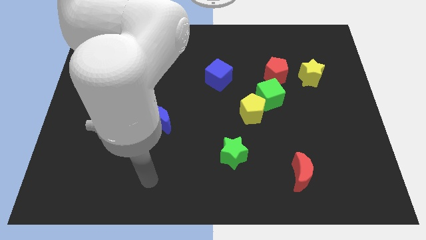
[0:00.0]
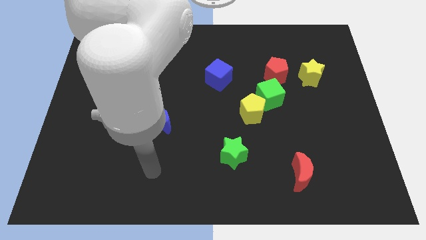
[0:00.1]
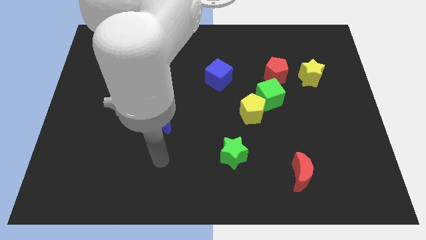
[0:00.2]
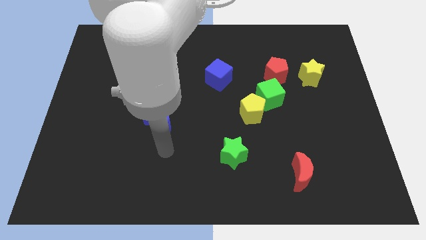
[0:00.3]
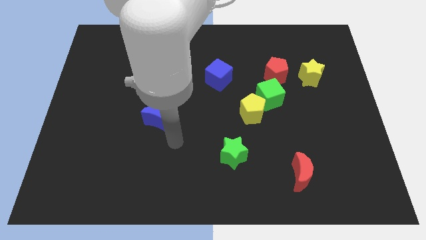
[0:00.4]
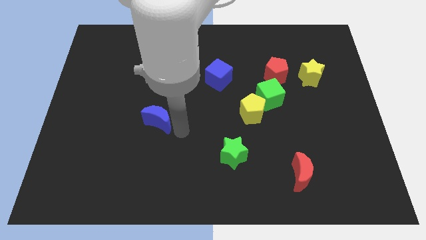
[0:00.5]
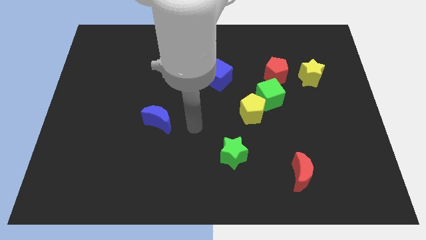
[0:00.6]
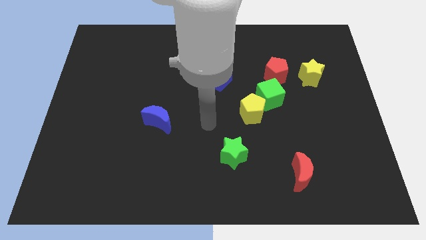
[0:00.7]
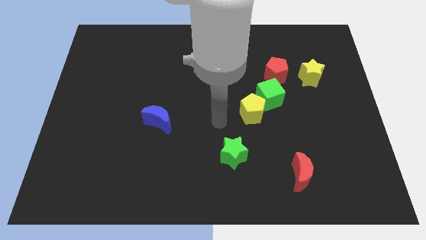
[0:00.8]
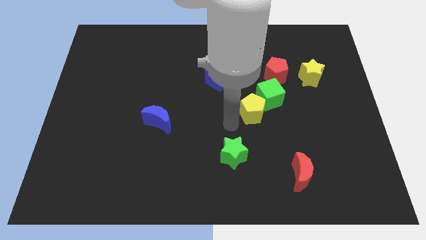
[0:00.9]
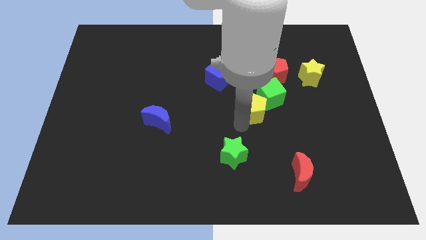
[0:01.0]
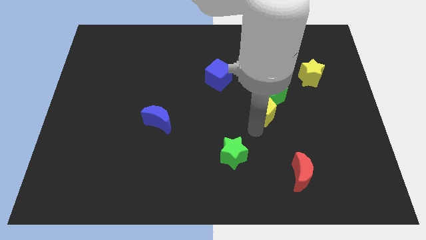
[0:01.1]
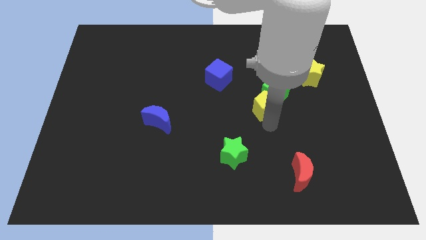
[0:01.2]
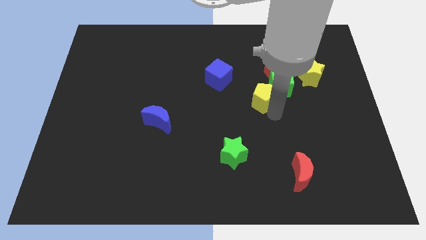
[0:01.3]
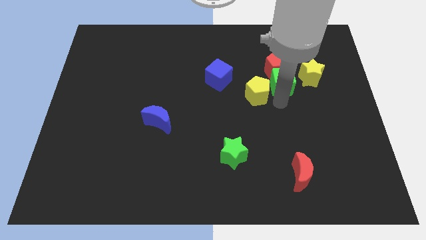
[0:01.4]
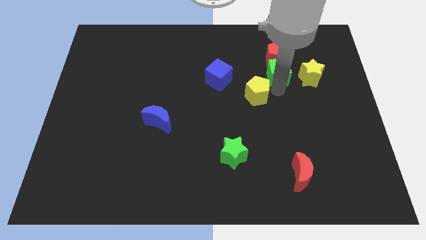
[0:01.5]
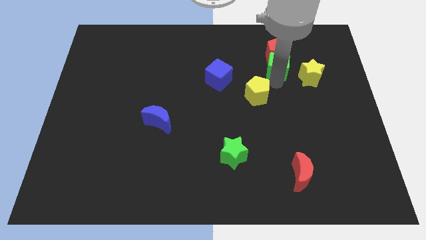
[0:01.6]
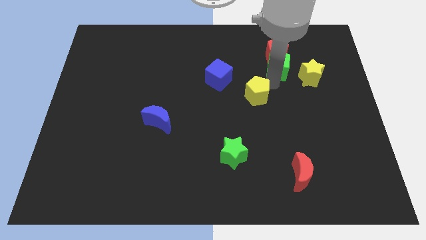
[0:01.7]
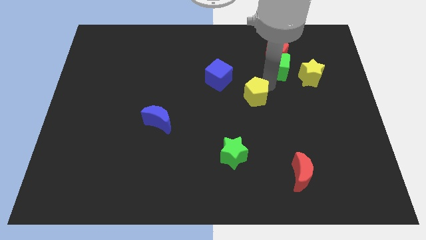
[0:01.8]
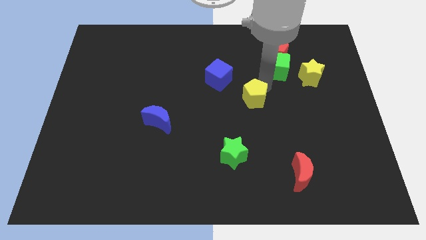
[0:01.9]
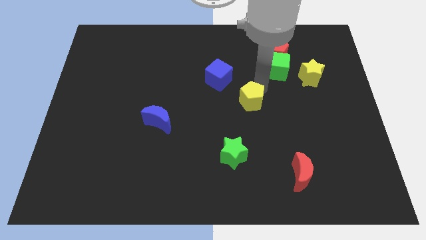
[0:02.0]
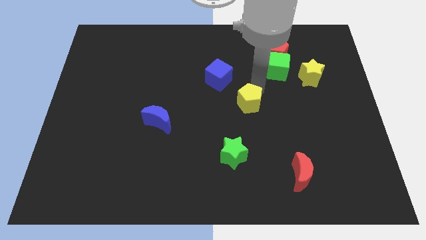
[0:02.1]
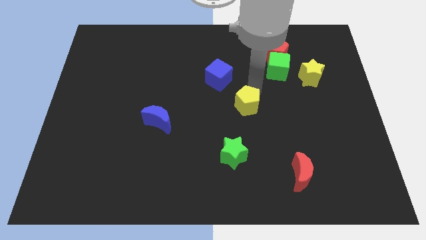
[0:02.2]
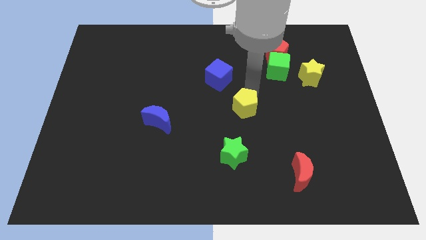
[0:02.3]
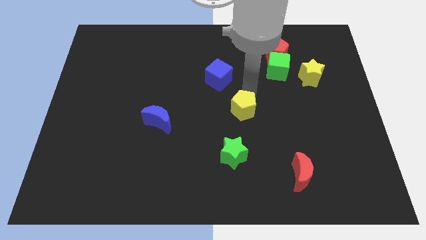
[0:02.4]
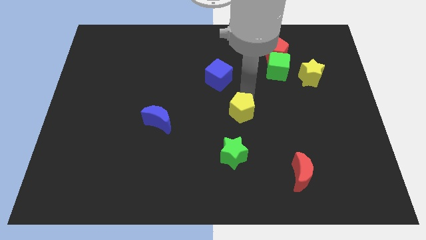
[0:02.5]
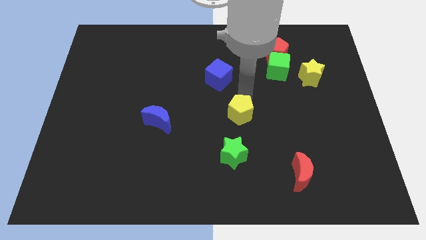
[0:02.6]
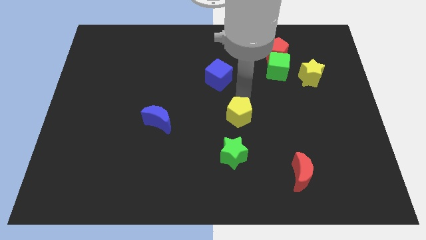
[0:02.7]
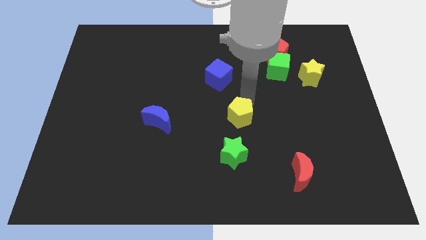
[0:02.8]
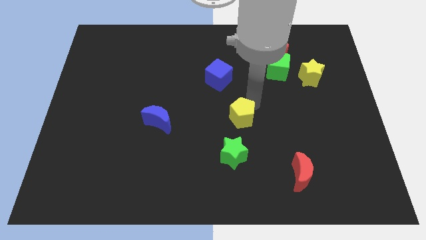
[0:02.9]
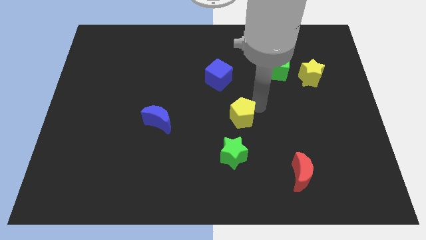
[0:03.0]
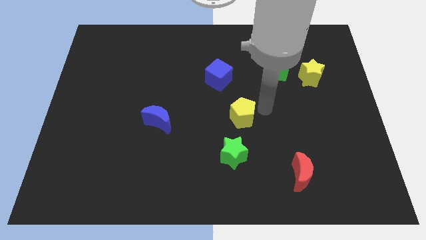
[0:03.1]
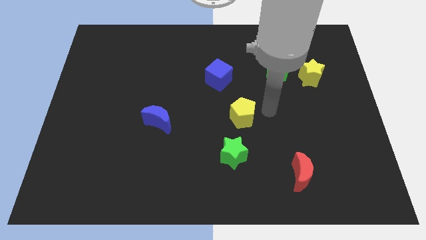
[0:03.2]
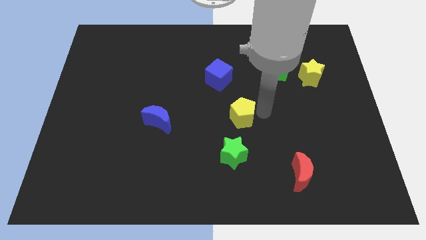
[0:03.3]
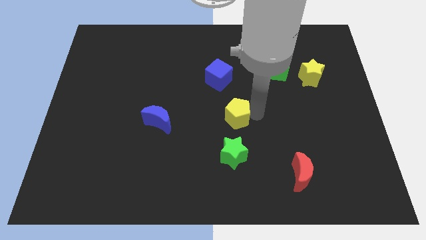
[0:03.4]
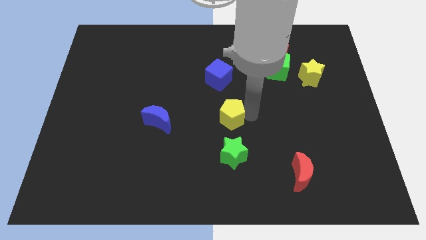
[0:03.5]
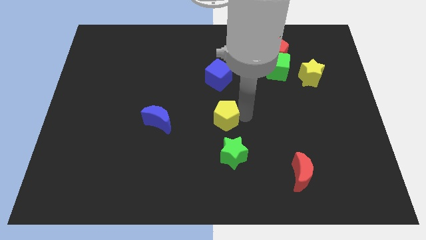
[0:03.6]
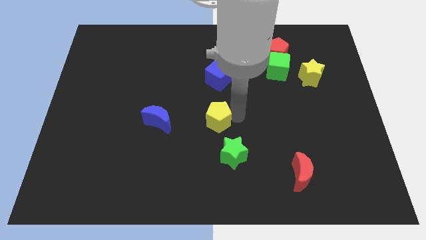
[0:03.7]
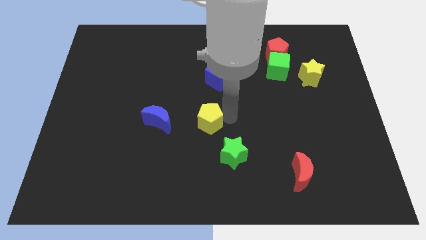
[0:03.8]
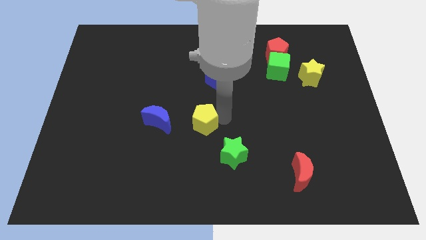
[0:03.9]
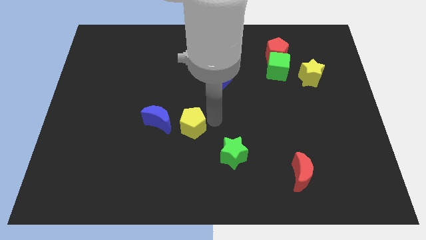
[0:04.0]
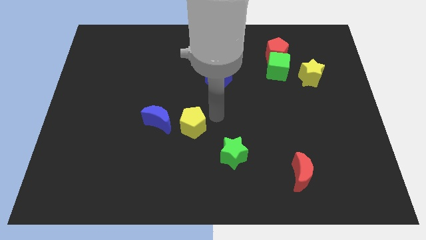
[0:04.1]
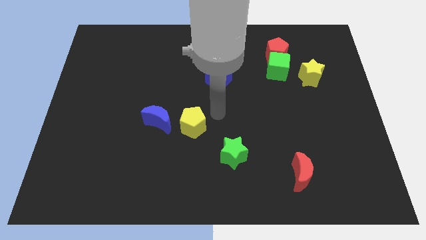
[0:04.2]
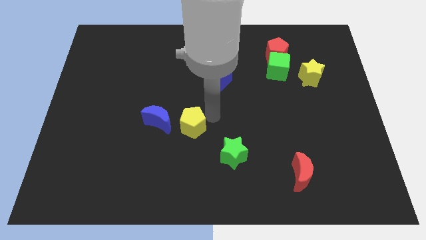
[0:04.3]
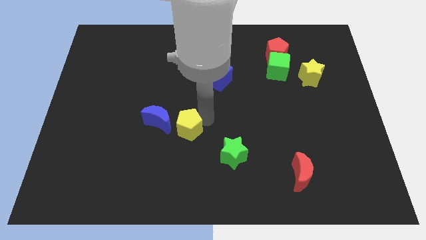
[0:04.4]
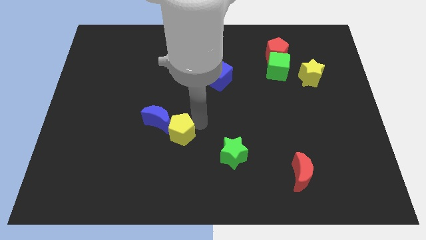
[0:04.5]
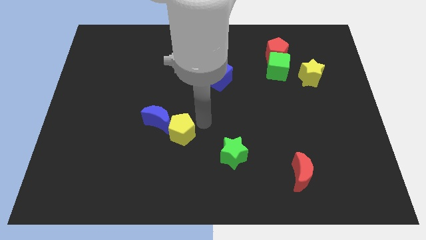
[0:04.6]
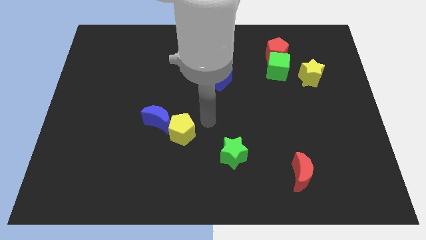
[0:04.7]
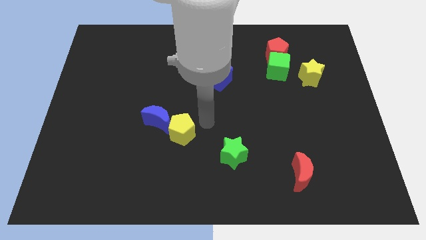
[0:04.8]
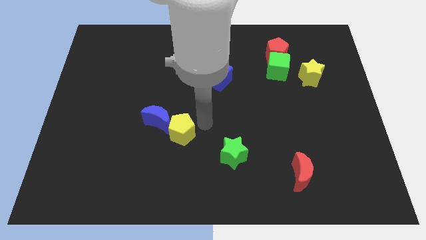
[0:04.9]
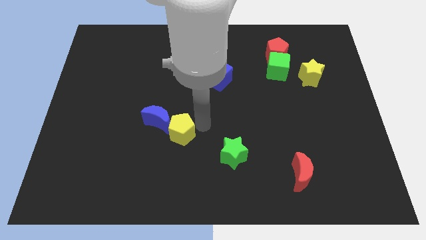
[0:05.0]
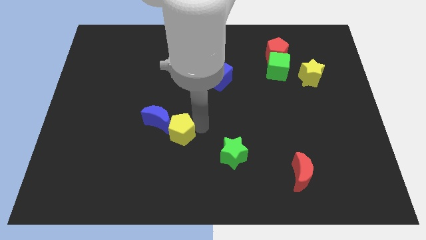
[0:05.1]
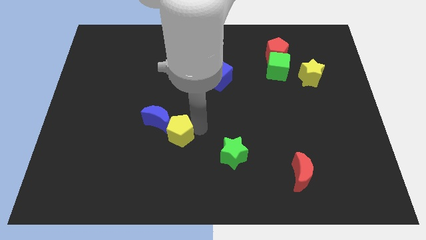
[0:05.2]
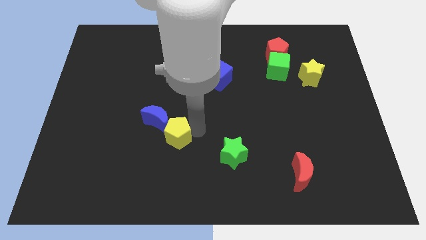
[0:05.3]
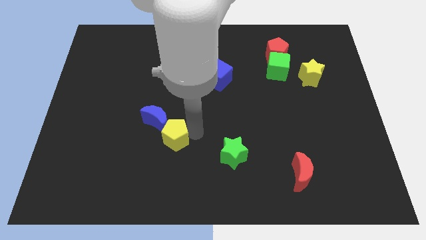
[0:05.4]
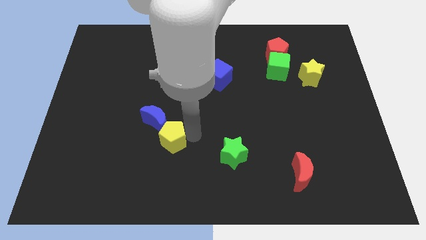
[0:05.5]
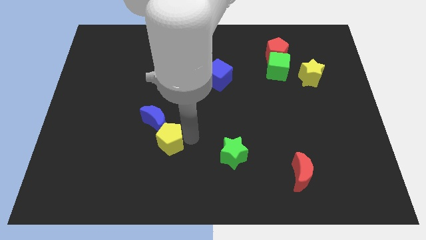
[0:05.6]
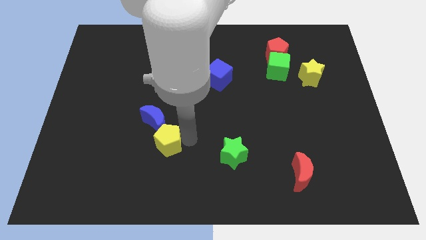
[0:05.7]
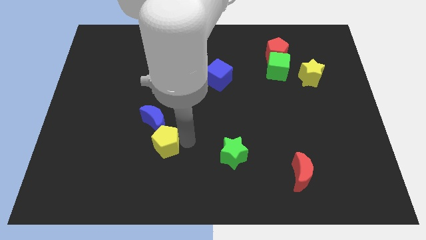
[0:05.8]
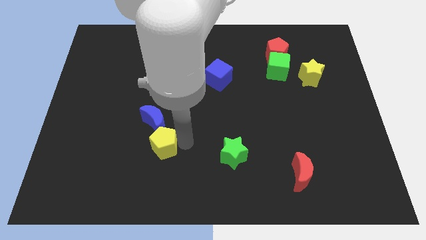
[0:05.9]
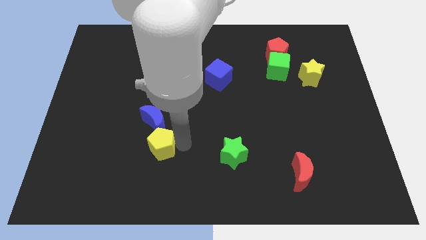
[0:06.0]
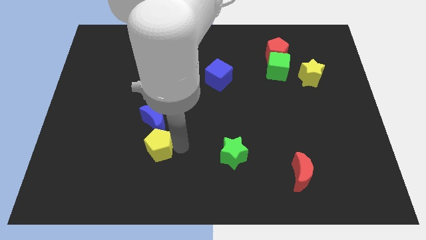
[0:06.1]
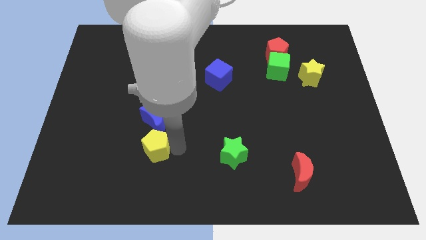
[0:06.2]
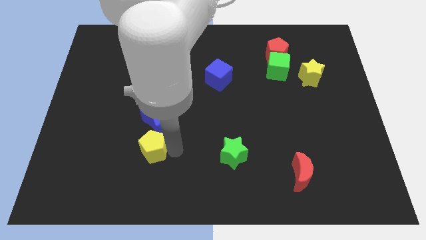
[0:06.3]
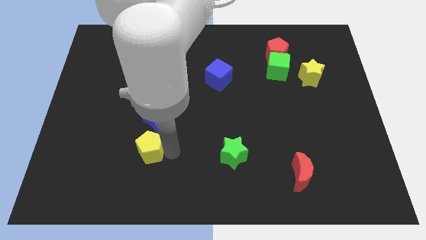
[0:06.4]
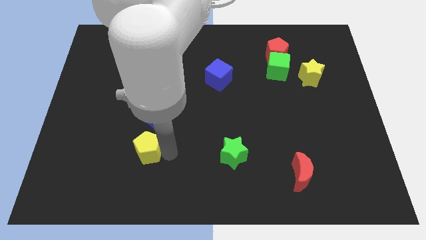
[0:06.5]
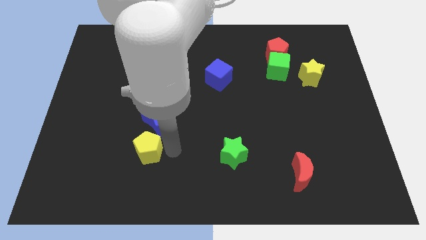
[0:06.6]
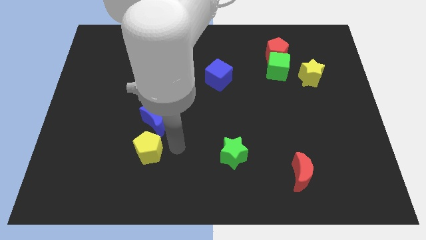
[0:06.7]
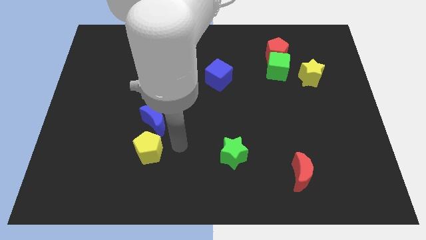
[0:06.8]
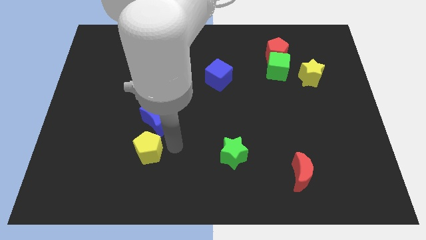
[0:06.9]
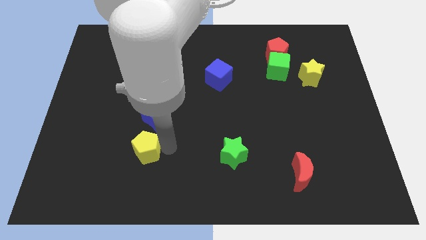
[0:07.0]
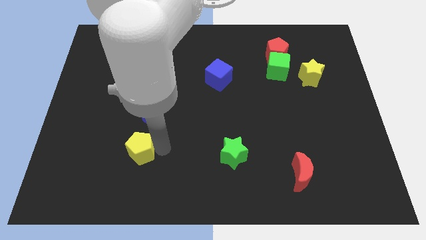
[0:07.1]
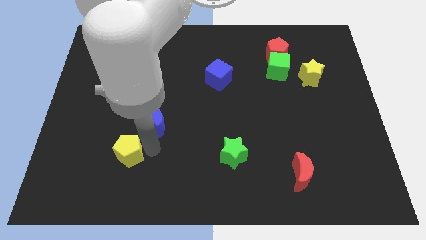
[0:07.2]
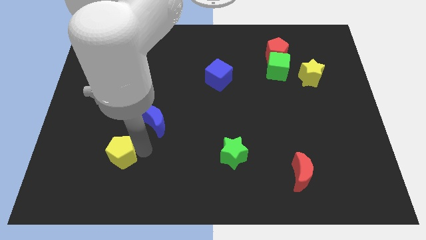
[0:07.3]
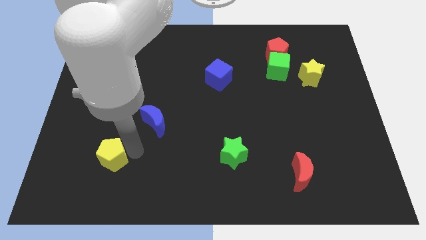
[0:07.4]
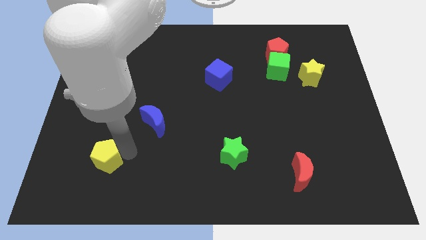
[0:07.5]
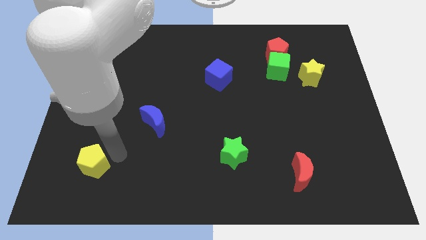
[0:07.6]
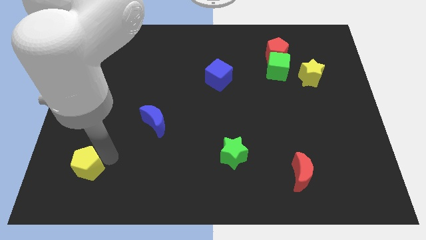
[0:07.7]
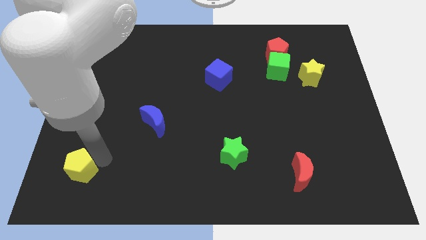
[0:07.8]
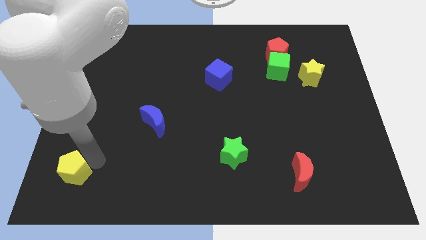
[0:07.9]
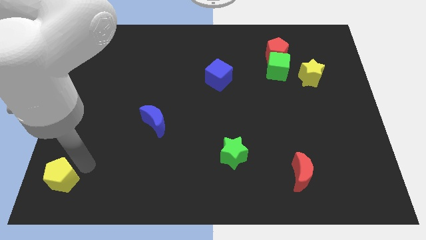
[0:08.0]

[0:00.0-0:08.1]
put the yellow pentagon to the bottom left
